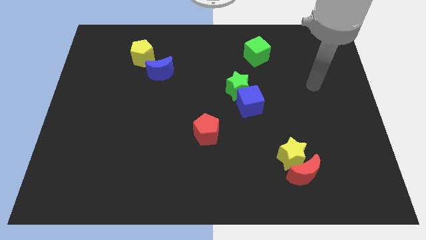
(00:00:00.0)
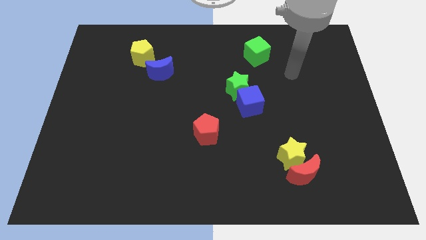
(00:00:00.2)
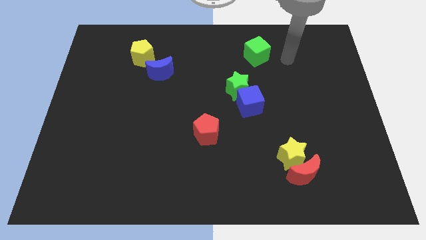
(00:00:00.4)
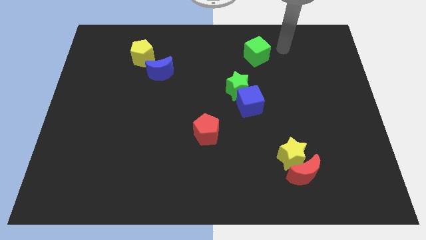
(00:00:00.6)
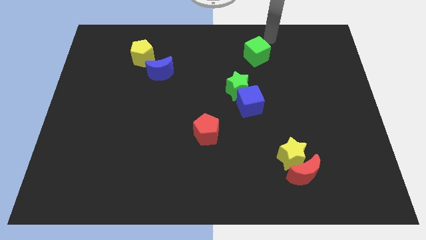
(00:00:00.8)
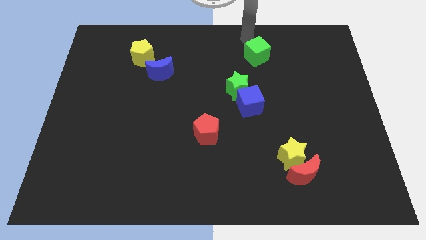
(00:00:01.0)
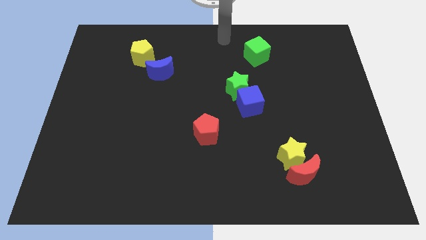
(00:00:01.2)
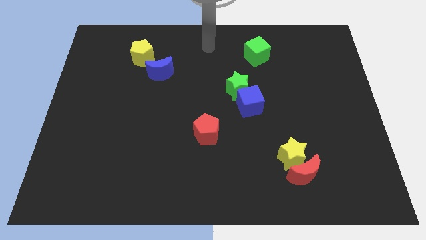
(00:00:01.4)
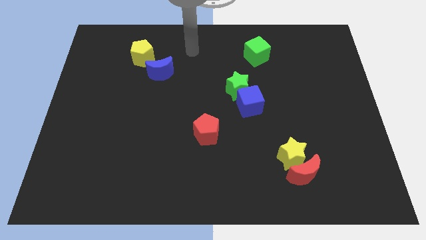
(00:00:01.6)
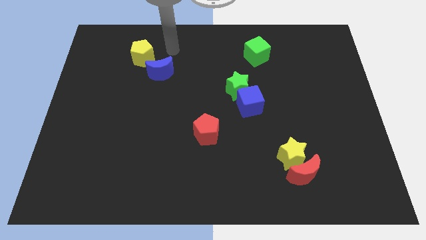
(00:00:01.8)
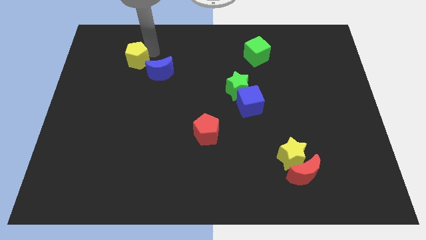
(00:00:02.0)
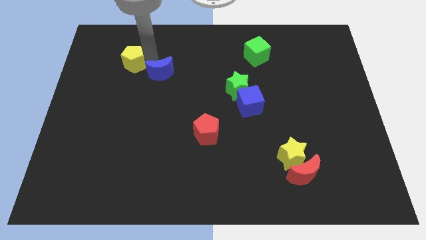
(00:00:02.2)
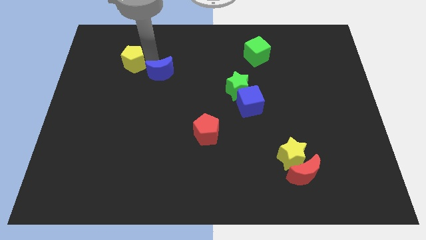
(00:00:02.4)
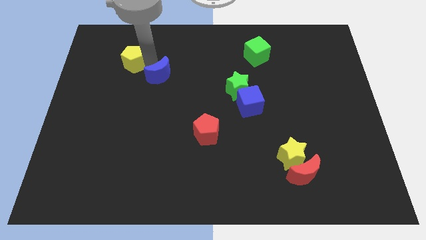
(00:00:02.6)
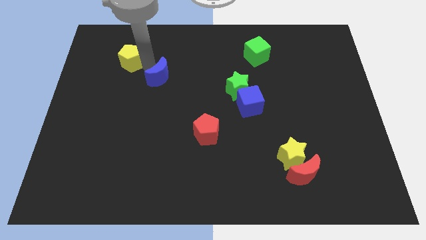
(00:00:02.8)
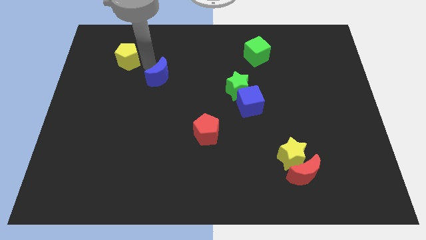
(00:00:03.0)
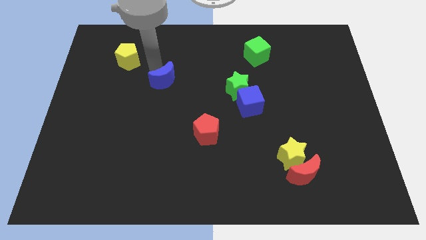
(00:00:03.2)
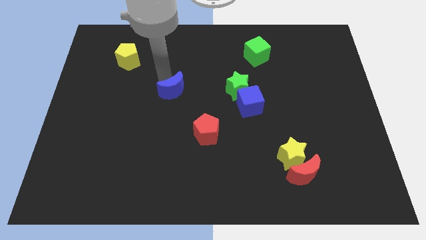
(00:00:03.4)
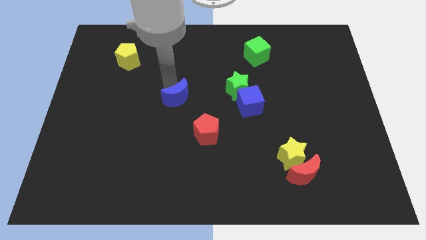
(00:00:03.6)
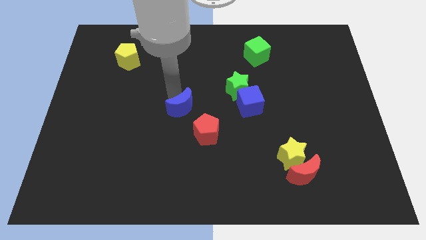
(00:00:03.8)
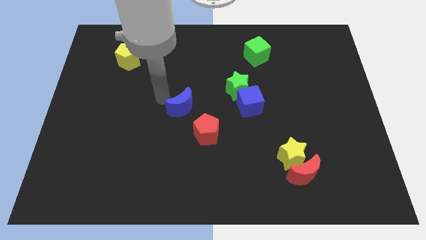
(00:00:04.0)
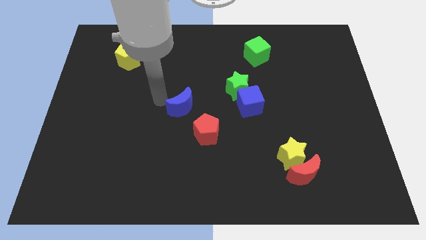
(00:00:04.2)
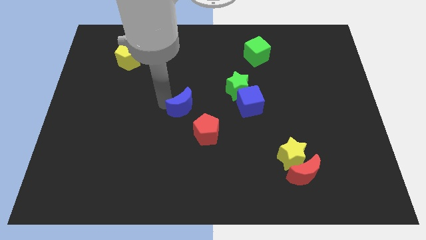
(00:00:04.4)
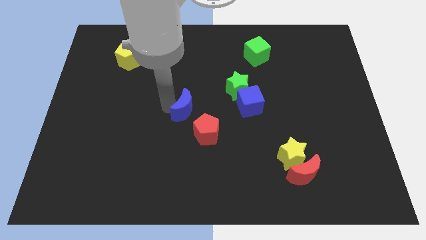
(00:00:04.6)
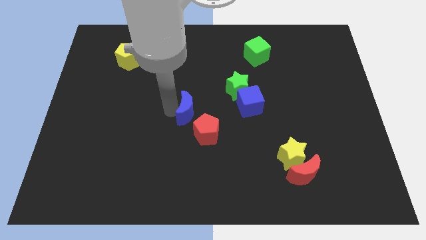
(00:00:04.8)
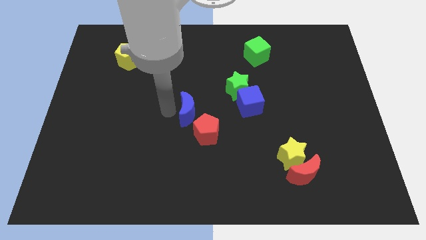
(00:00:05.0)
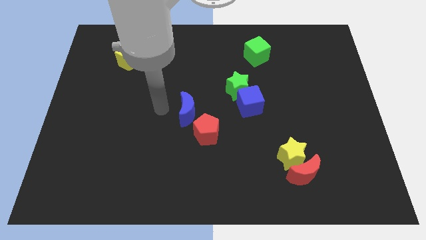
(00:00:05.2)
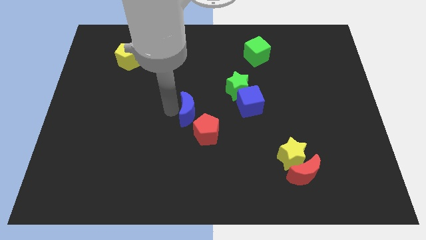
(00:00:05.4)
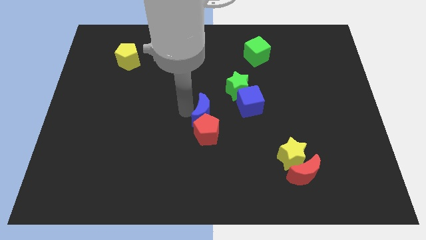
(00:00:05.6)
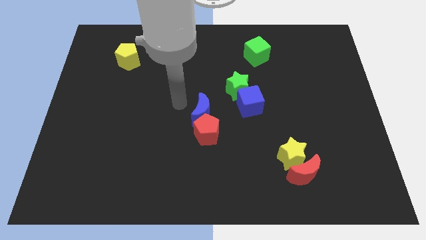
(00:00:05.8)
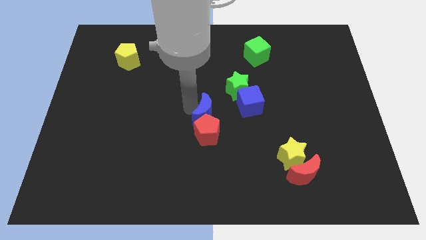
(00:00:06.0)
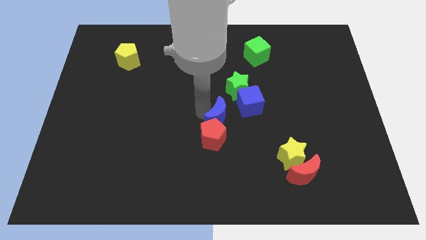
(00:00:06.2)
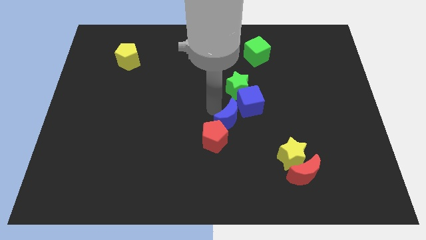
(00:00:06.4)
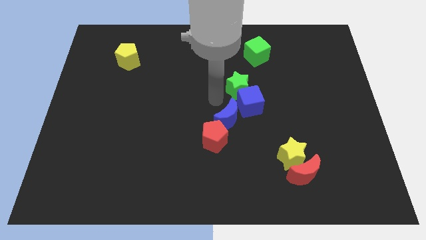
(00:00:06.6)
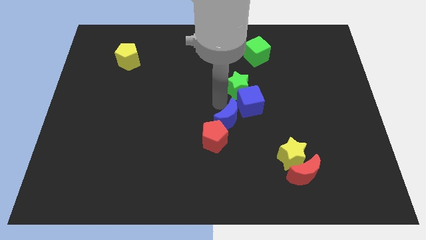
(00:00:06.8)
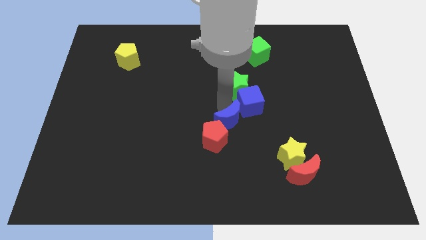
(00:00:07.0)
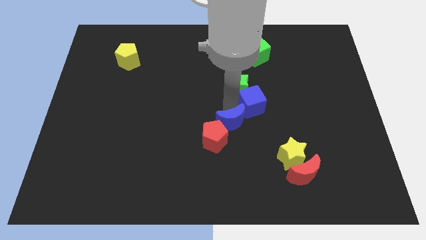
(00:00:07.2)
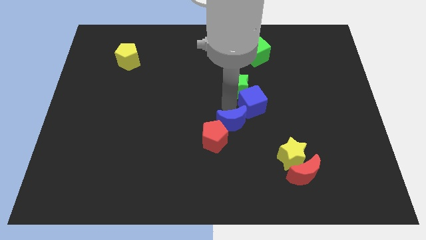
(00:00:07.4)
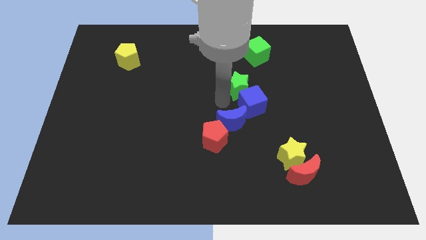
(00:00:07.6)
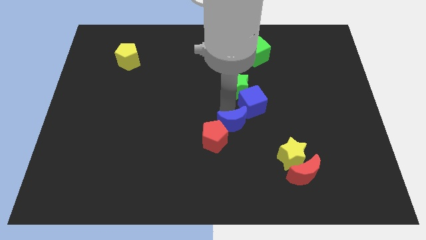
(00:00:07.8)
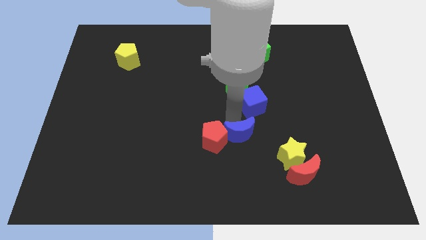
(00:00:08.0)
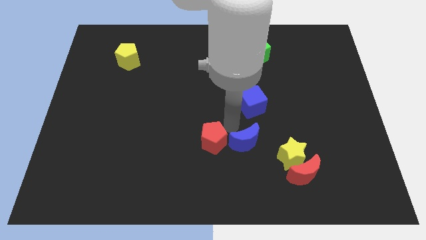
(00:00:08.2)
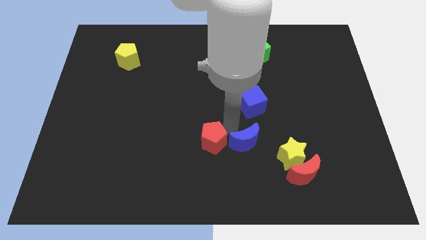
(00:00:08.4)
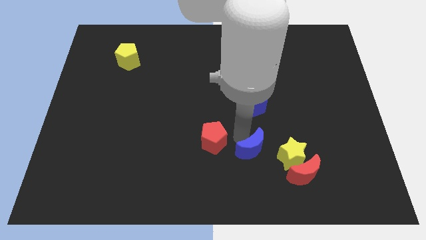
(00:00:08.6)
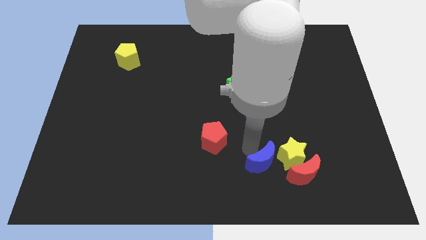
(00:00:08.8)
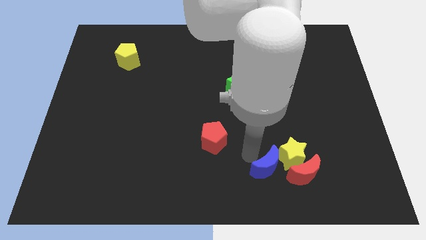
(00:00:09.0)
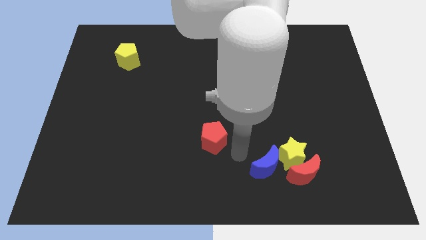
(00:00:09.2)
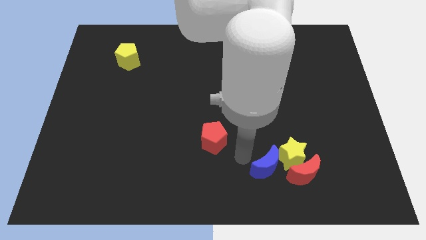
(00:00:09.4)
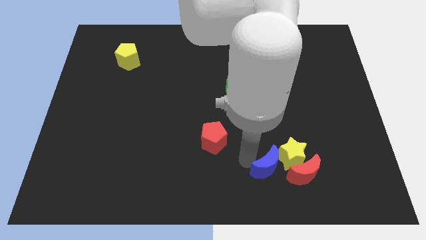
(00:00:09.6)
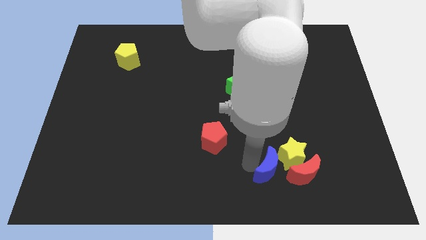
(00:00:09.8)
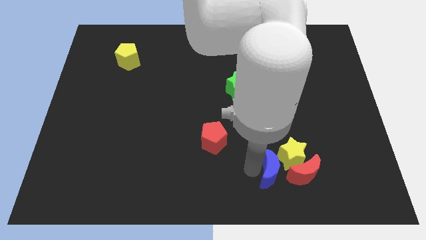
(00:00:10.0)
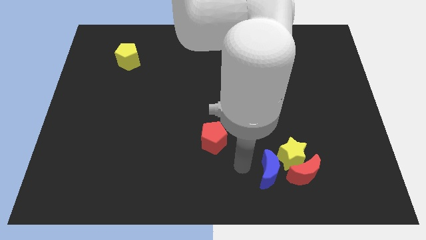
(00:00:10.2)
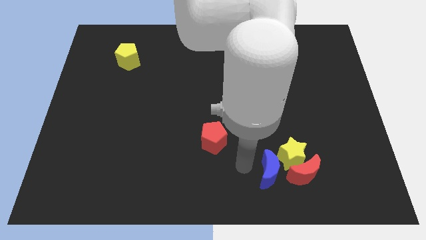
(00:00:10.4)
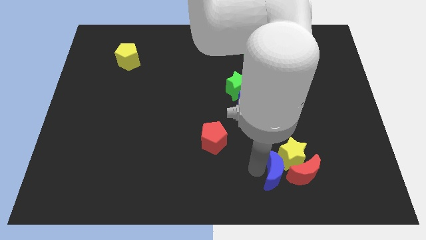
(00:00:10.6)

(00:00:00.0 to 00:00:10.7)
put the blue moon close to the red moon

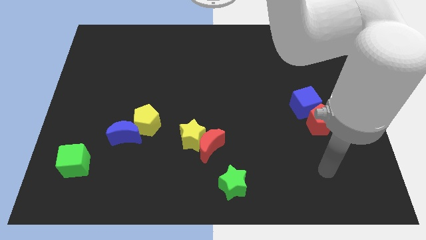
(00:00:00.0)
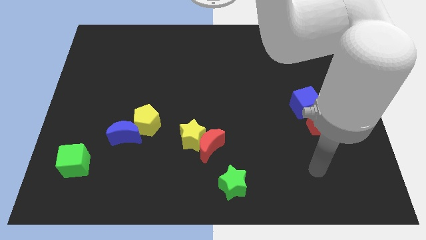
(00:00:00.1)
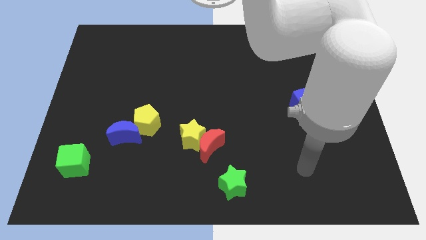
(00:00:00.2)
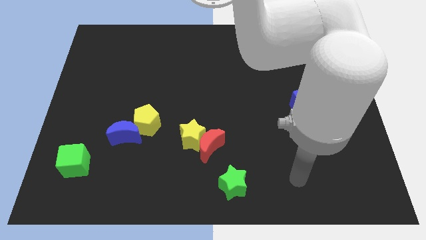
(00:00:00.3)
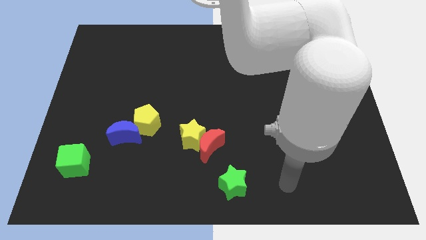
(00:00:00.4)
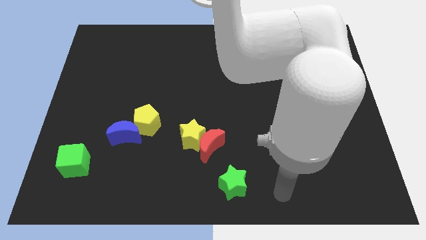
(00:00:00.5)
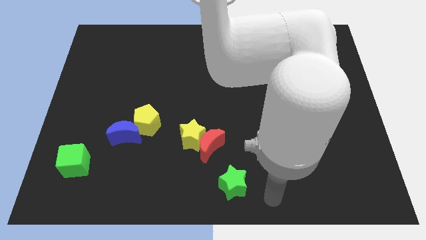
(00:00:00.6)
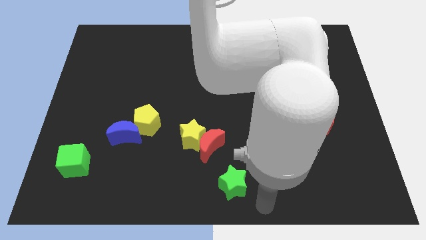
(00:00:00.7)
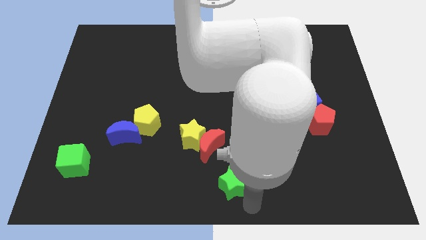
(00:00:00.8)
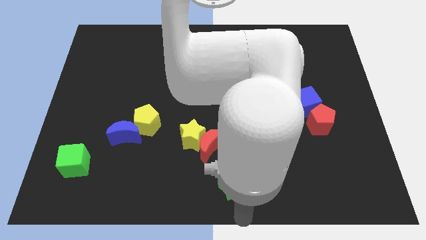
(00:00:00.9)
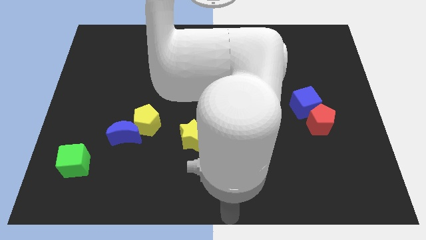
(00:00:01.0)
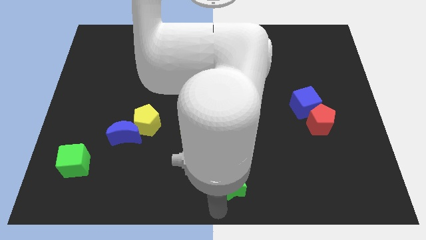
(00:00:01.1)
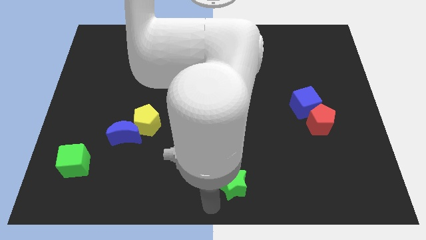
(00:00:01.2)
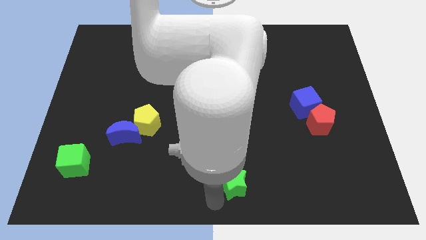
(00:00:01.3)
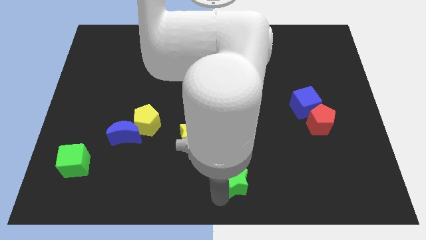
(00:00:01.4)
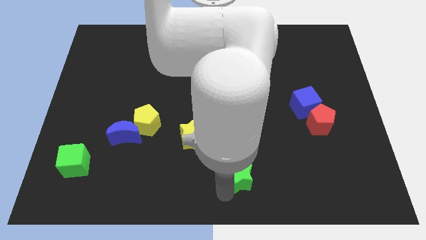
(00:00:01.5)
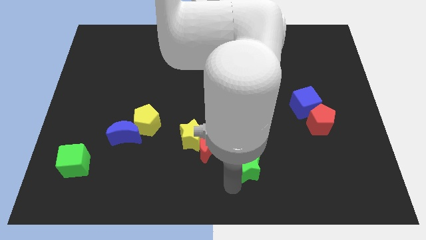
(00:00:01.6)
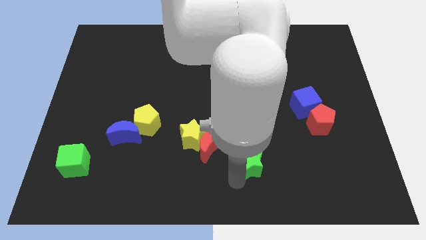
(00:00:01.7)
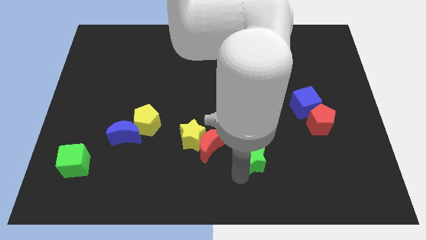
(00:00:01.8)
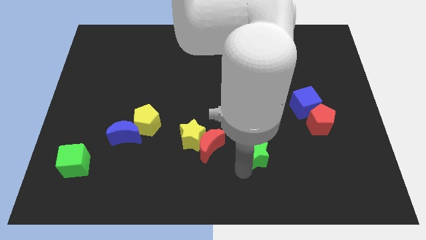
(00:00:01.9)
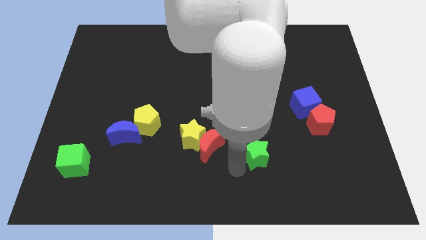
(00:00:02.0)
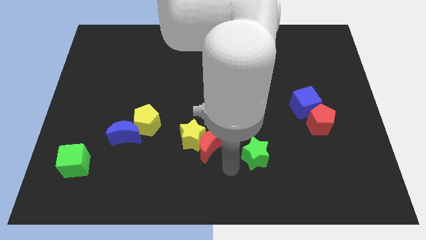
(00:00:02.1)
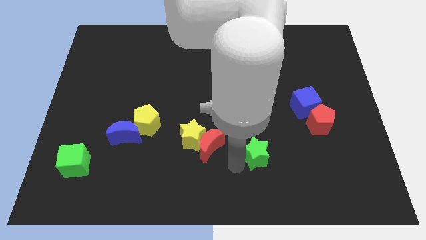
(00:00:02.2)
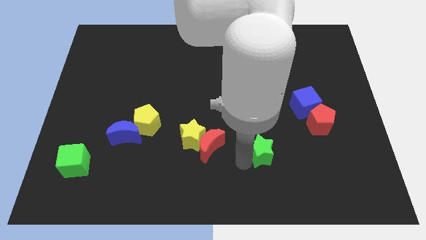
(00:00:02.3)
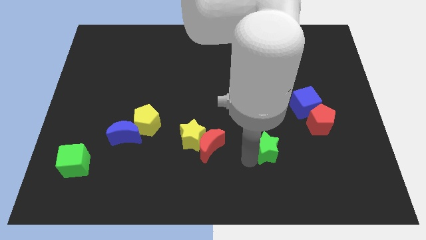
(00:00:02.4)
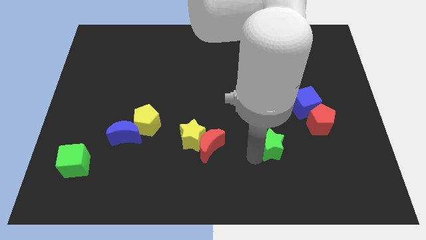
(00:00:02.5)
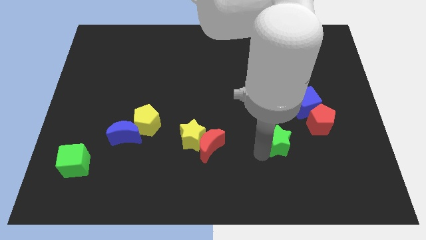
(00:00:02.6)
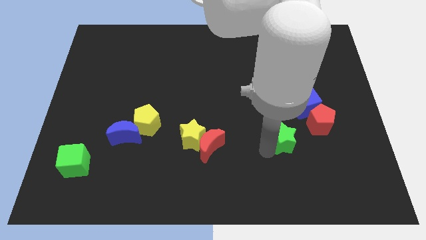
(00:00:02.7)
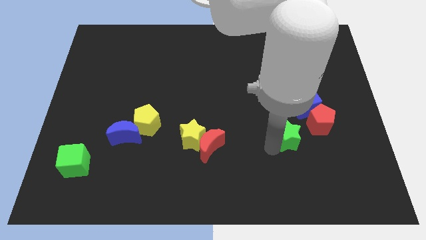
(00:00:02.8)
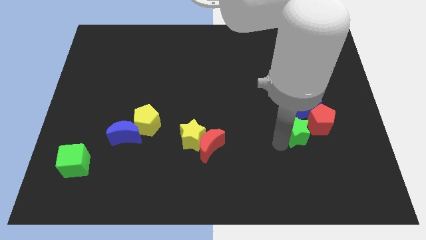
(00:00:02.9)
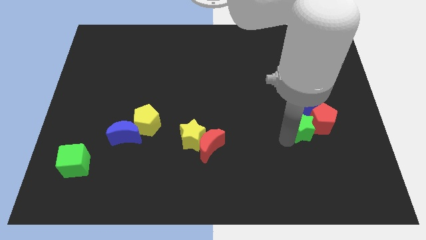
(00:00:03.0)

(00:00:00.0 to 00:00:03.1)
put the green star to the red pentagon
